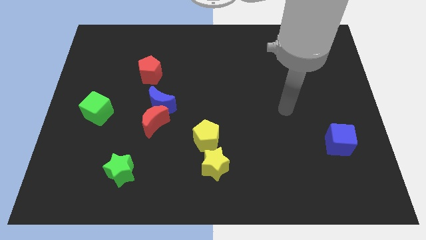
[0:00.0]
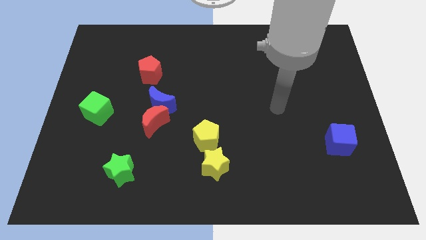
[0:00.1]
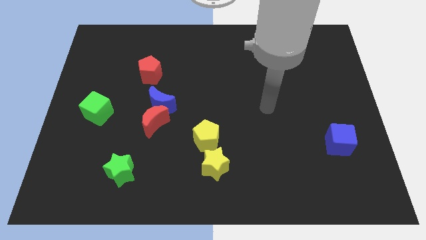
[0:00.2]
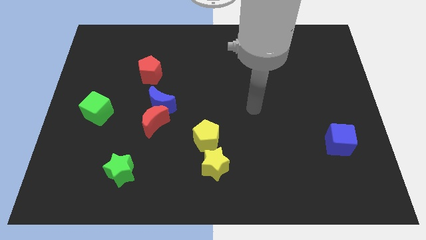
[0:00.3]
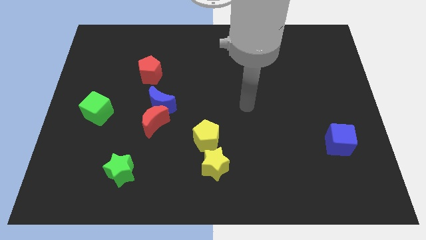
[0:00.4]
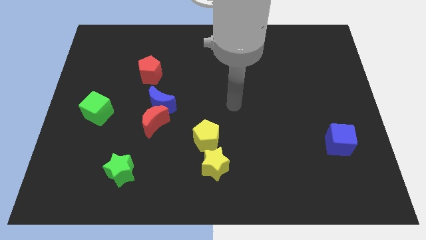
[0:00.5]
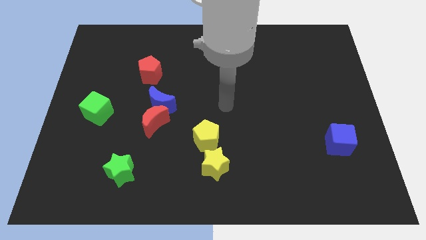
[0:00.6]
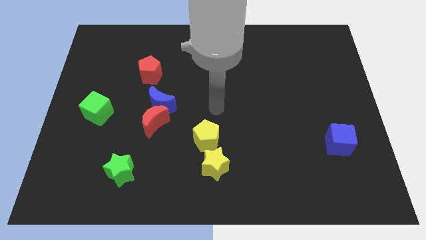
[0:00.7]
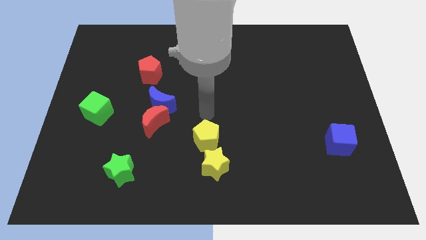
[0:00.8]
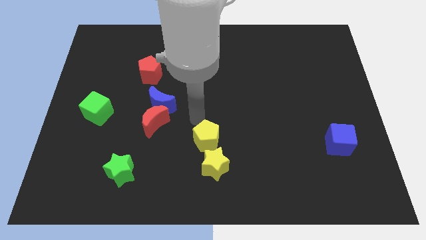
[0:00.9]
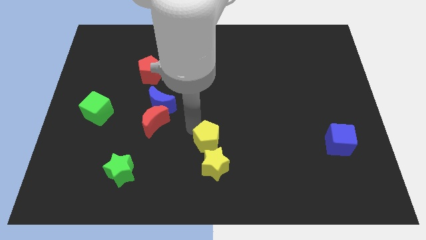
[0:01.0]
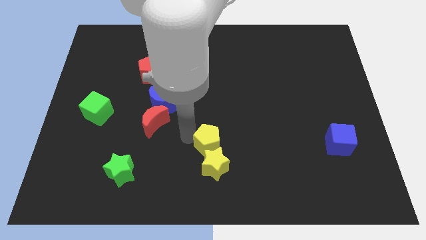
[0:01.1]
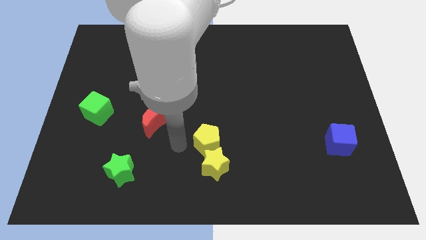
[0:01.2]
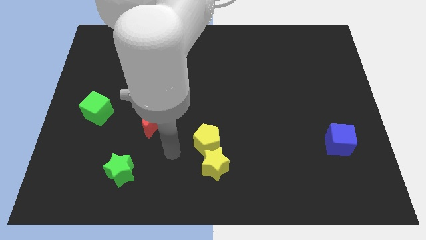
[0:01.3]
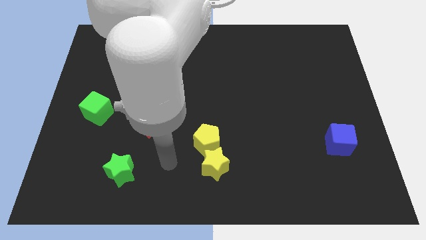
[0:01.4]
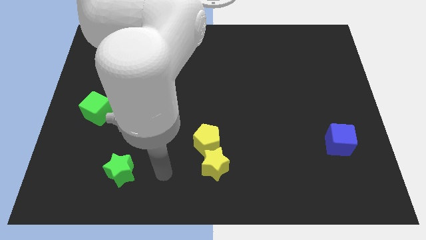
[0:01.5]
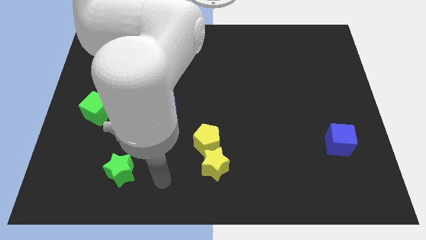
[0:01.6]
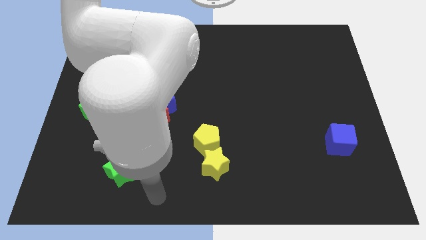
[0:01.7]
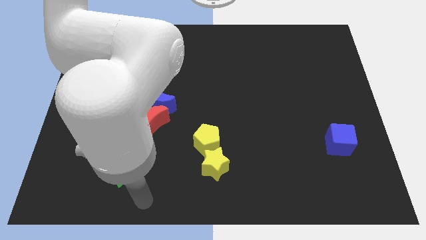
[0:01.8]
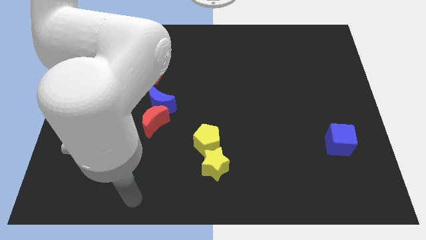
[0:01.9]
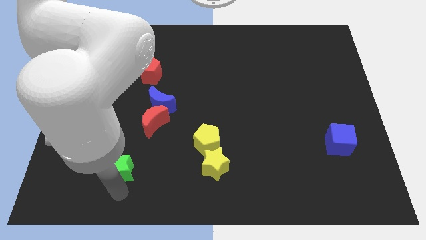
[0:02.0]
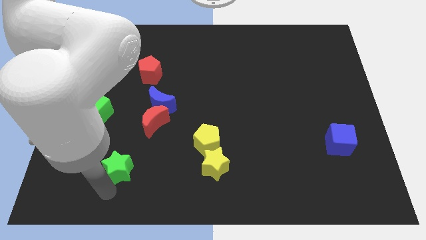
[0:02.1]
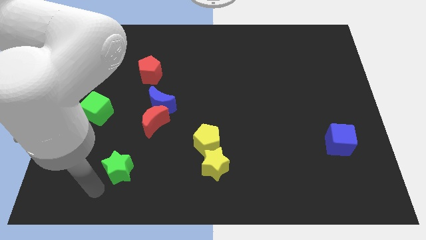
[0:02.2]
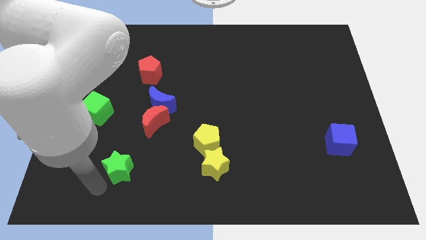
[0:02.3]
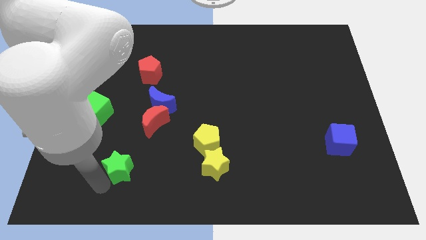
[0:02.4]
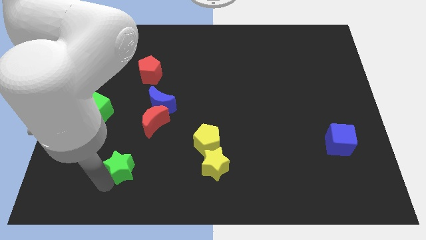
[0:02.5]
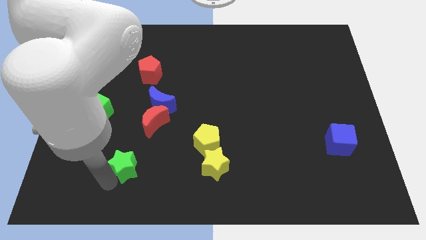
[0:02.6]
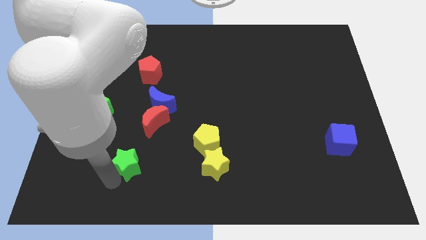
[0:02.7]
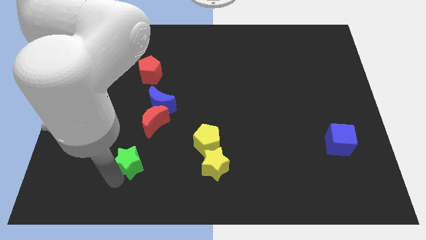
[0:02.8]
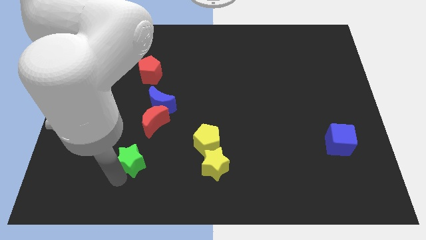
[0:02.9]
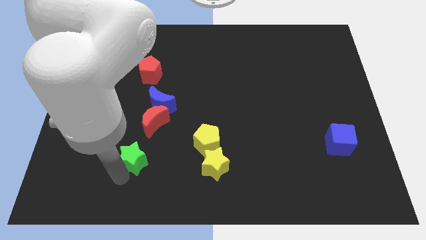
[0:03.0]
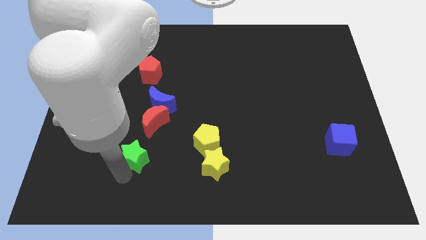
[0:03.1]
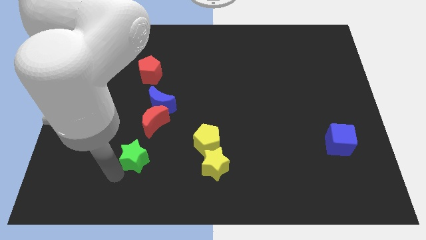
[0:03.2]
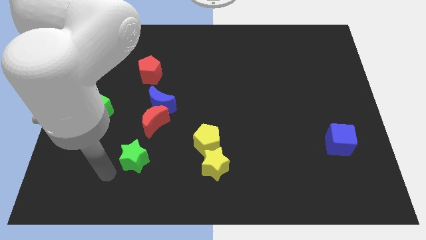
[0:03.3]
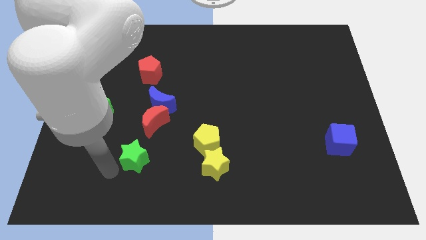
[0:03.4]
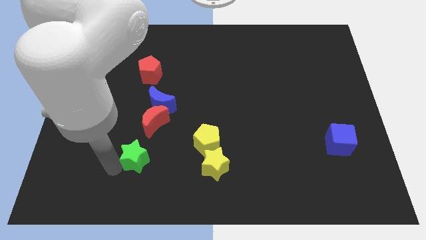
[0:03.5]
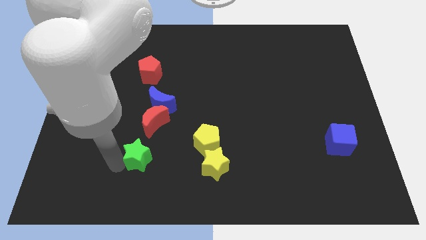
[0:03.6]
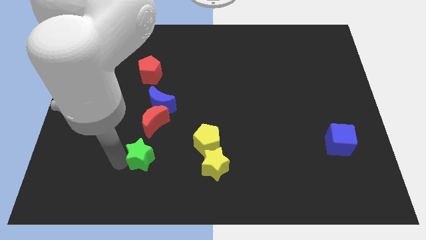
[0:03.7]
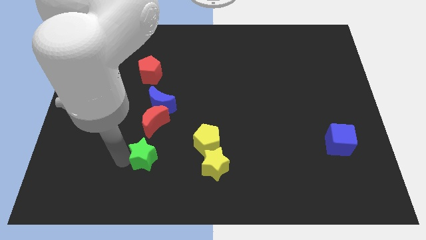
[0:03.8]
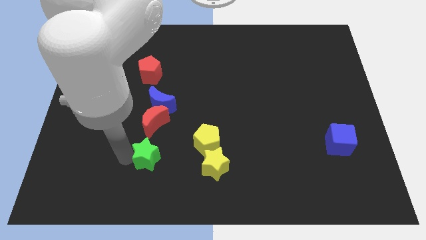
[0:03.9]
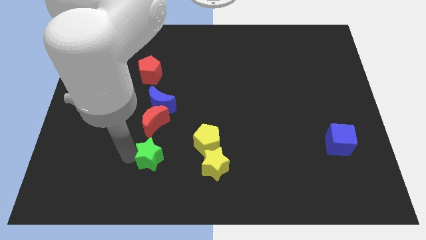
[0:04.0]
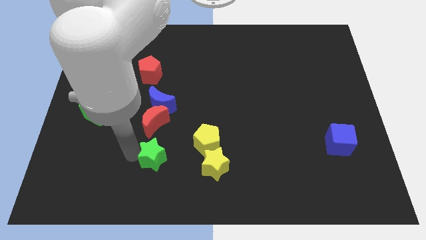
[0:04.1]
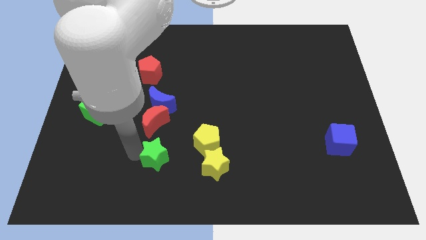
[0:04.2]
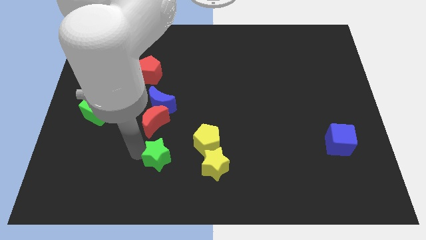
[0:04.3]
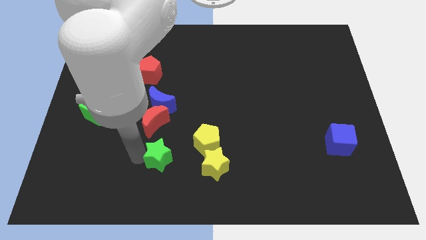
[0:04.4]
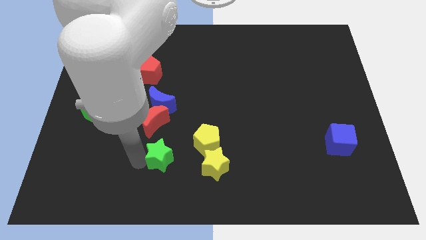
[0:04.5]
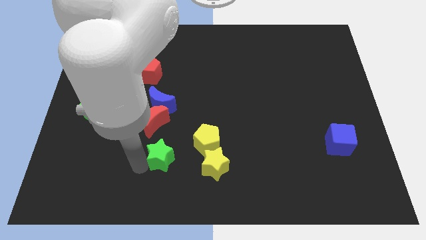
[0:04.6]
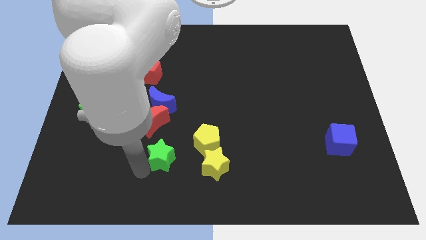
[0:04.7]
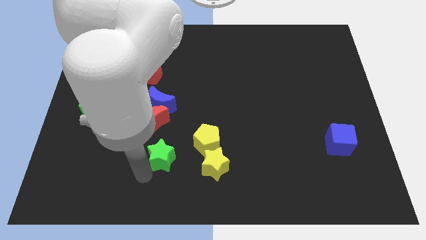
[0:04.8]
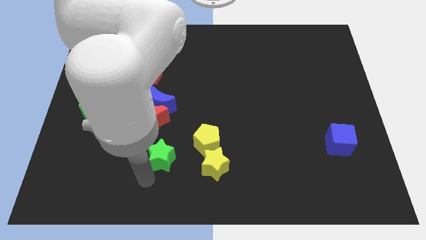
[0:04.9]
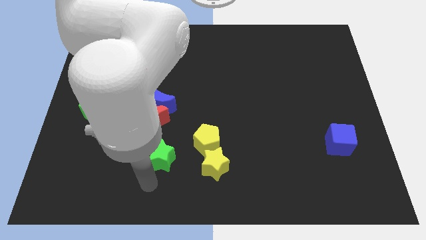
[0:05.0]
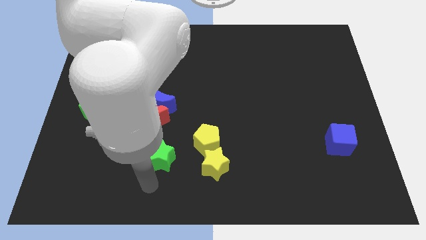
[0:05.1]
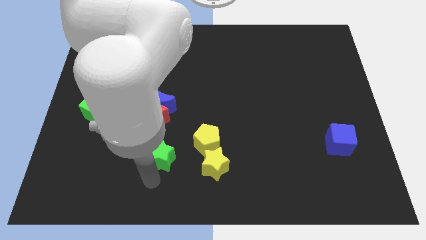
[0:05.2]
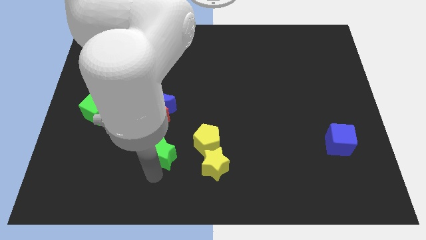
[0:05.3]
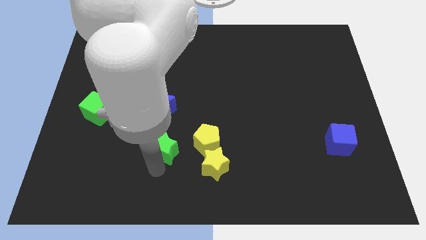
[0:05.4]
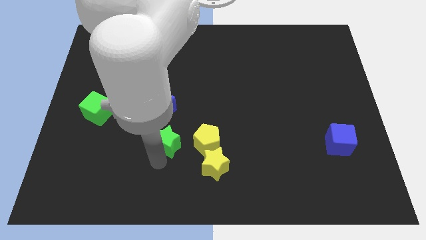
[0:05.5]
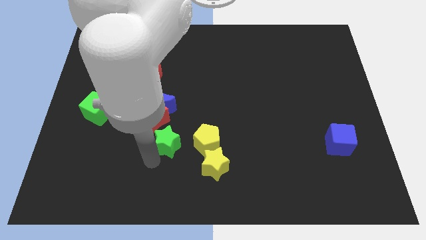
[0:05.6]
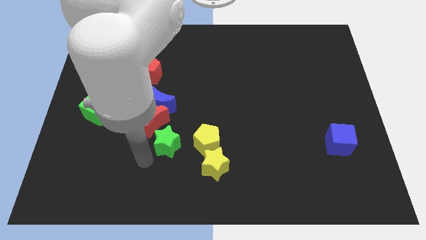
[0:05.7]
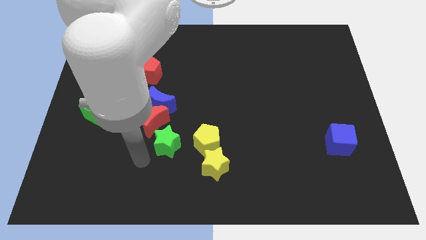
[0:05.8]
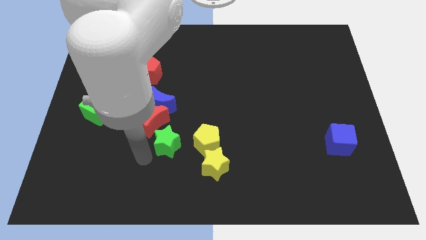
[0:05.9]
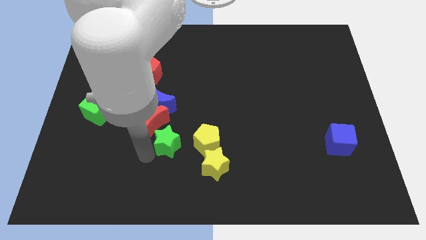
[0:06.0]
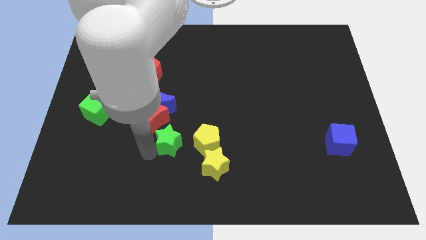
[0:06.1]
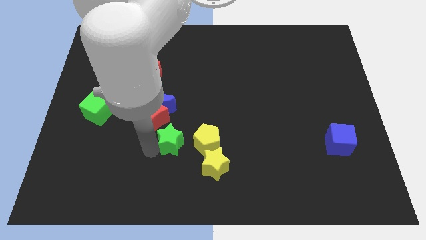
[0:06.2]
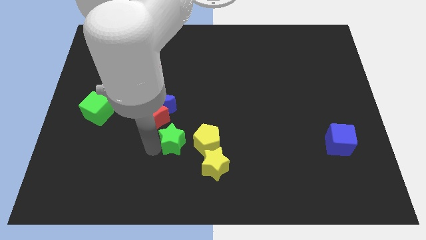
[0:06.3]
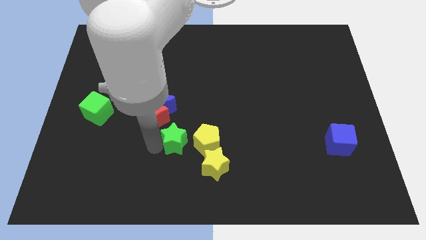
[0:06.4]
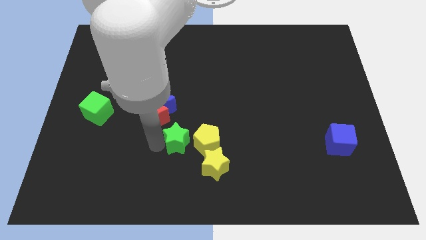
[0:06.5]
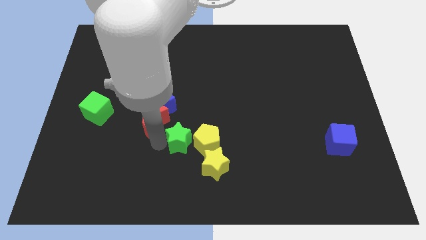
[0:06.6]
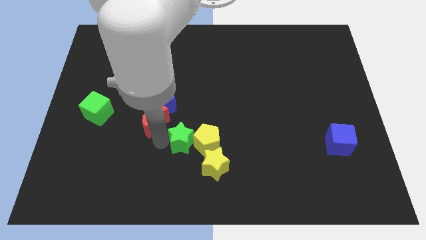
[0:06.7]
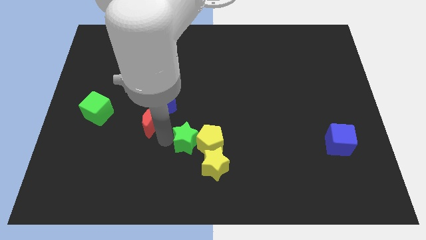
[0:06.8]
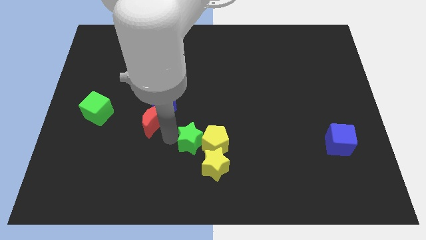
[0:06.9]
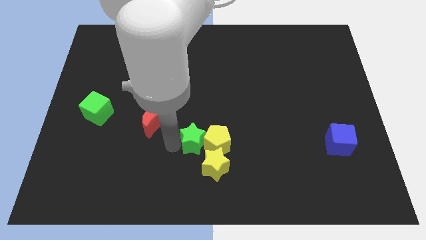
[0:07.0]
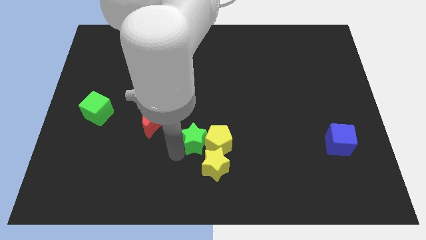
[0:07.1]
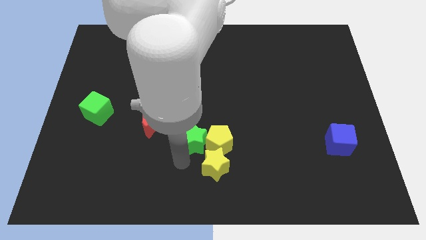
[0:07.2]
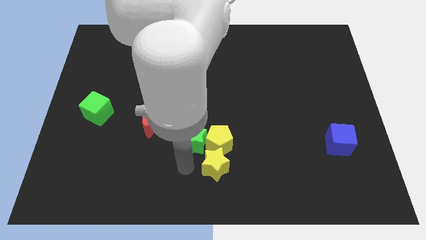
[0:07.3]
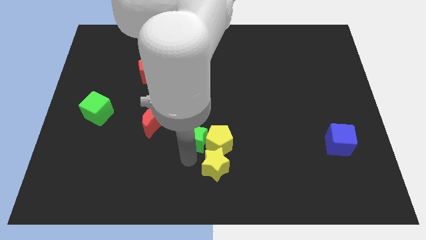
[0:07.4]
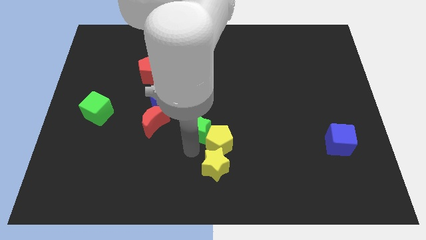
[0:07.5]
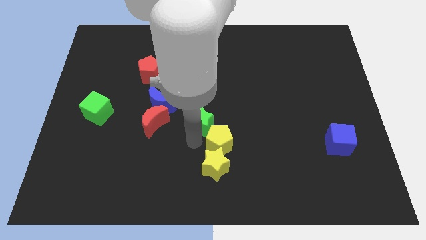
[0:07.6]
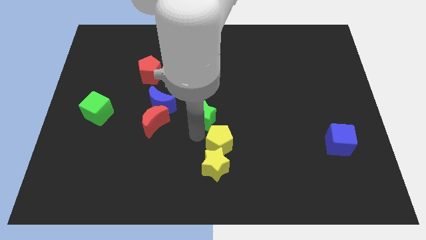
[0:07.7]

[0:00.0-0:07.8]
slide the green star to the right of the blue moon
